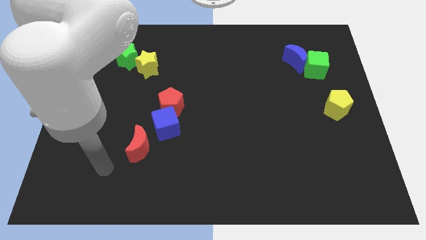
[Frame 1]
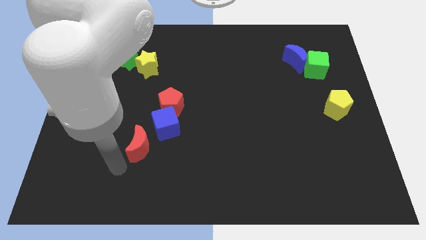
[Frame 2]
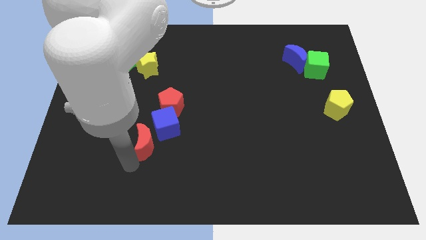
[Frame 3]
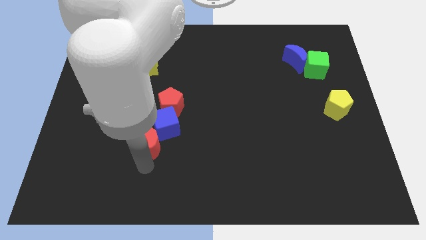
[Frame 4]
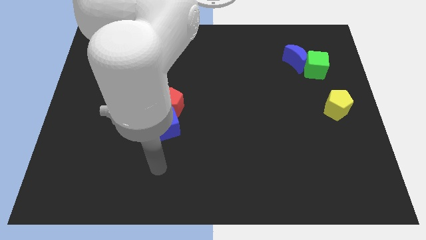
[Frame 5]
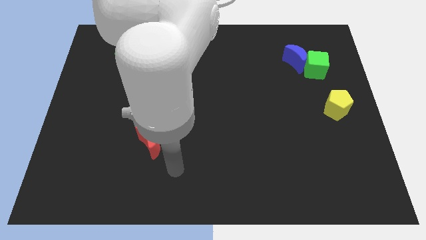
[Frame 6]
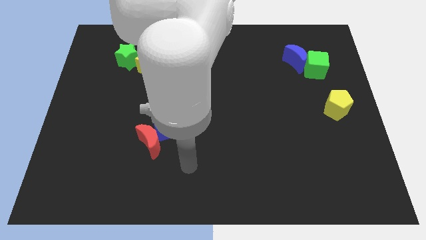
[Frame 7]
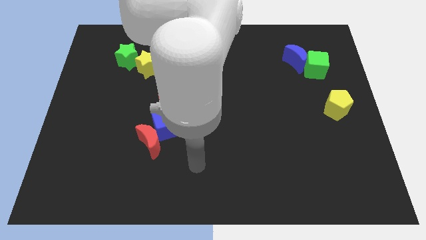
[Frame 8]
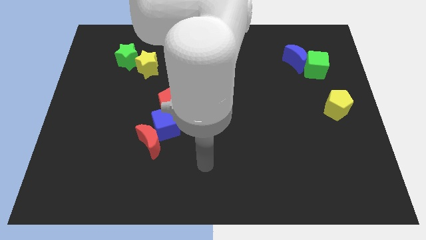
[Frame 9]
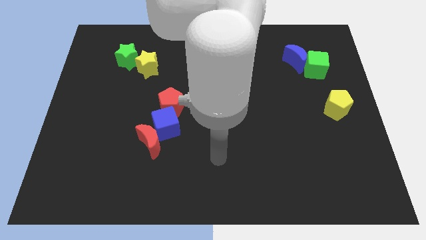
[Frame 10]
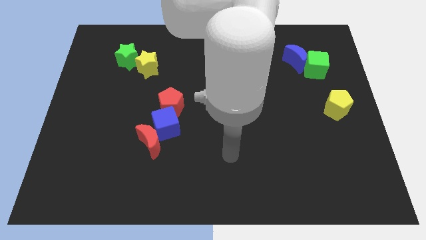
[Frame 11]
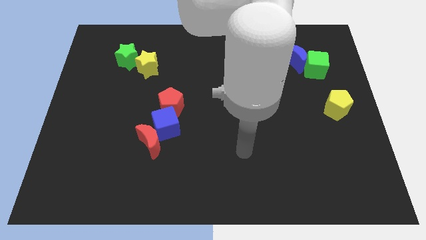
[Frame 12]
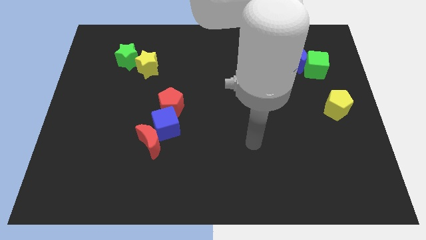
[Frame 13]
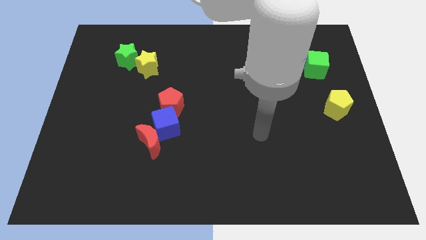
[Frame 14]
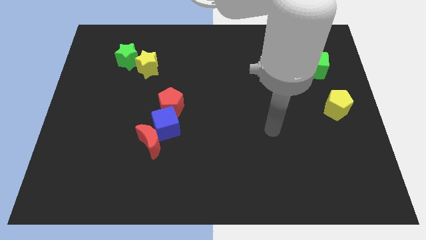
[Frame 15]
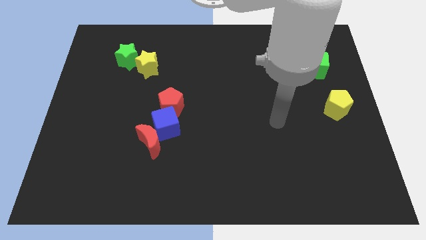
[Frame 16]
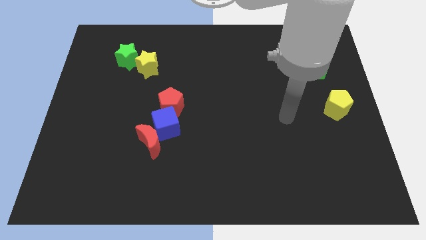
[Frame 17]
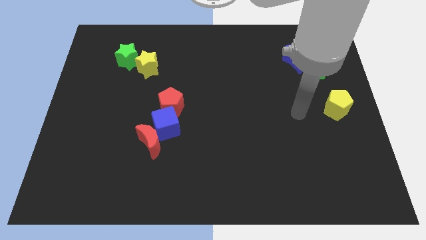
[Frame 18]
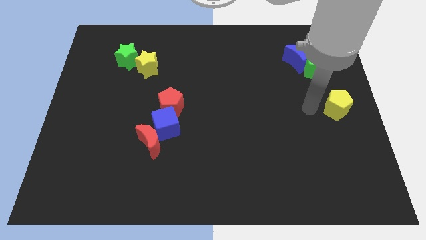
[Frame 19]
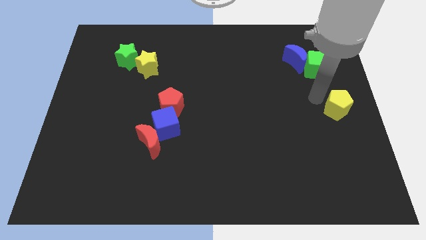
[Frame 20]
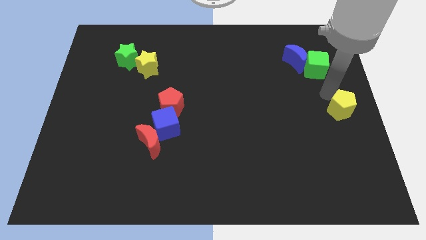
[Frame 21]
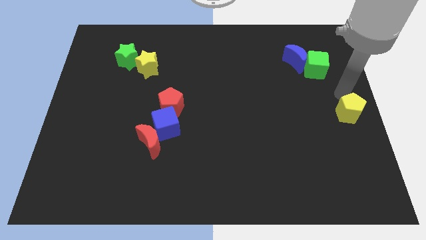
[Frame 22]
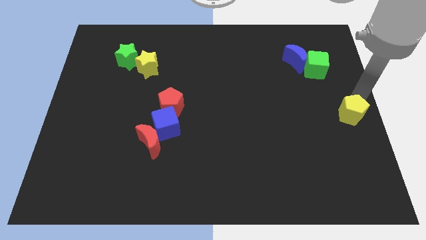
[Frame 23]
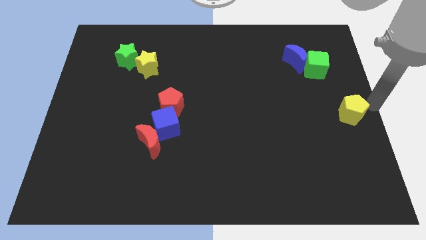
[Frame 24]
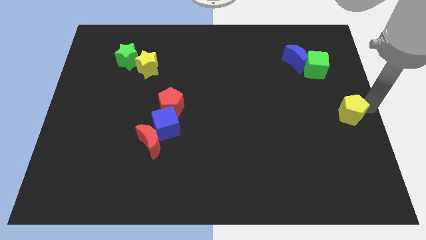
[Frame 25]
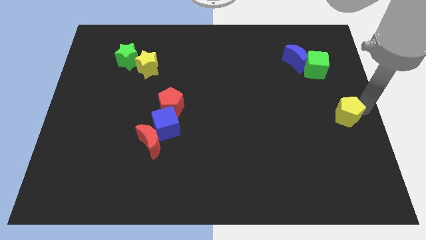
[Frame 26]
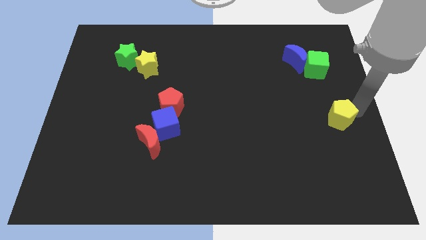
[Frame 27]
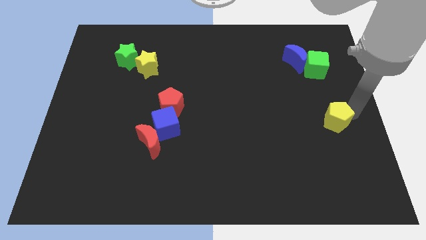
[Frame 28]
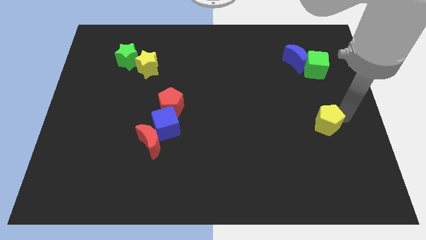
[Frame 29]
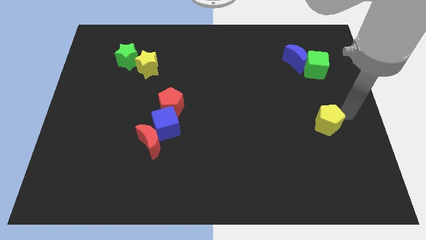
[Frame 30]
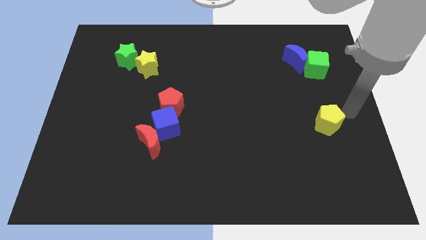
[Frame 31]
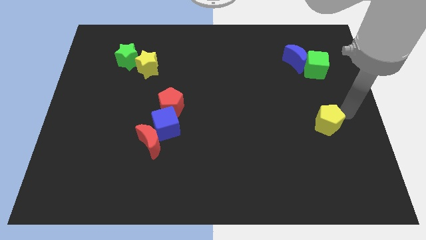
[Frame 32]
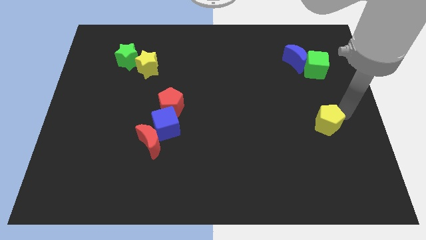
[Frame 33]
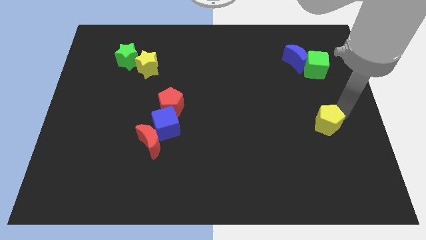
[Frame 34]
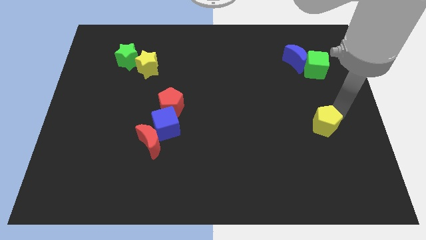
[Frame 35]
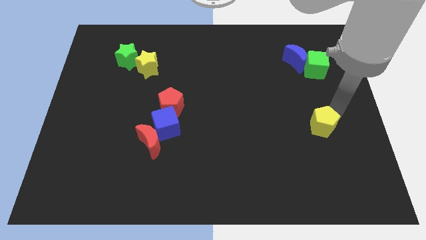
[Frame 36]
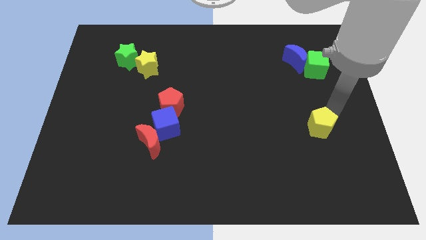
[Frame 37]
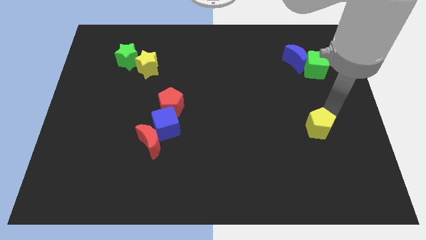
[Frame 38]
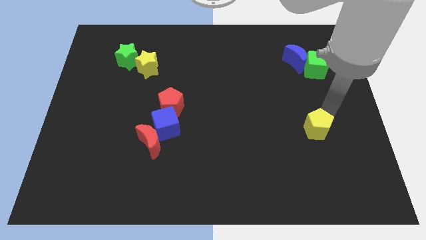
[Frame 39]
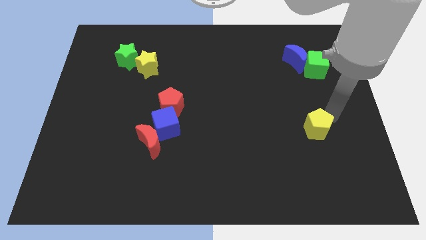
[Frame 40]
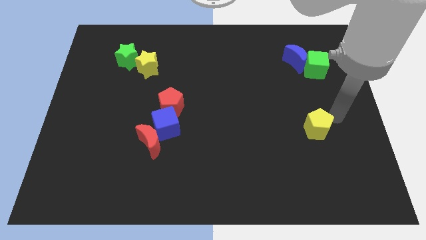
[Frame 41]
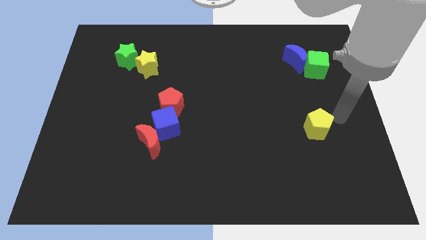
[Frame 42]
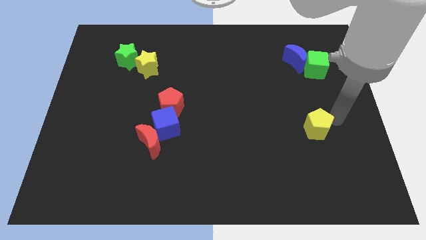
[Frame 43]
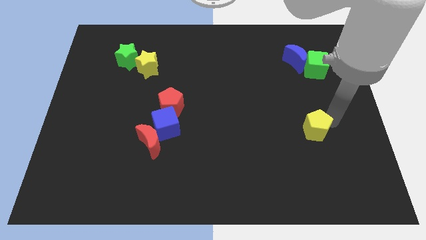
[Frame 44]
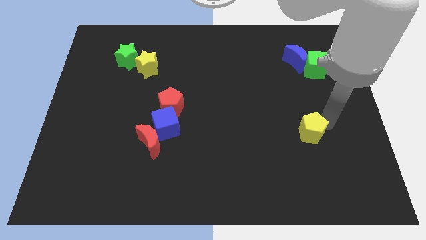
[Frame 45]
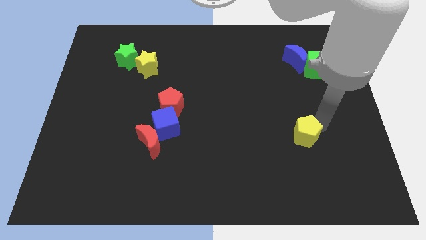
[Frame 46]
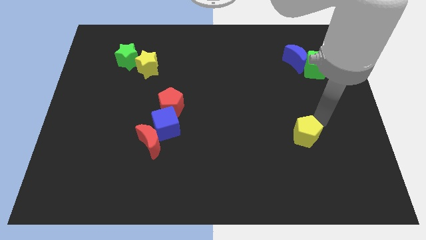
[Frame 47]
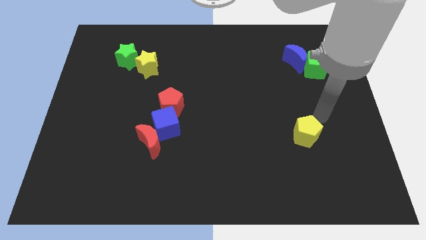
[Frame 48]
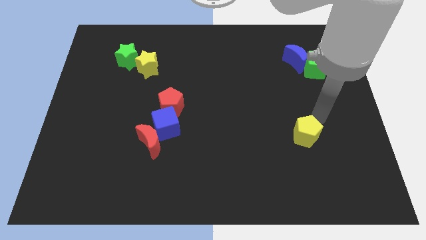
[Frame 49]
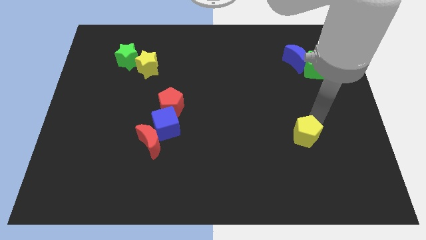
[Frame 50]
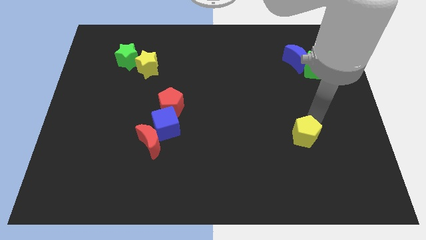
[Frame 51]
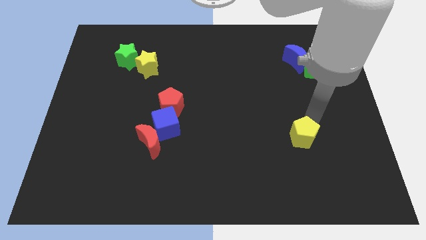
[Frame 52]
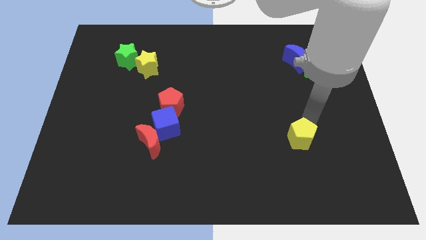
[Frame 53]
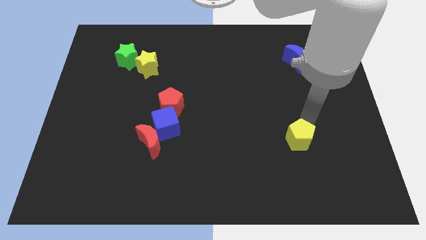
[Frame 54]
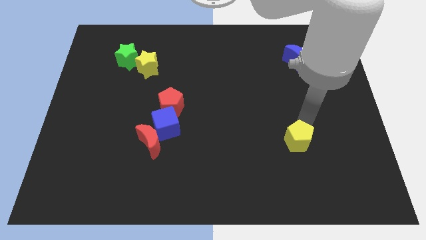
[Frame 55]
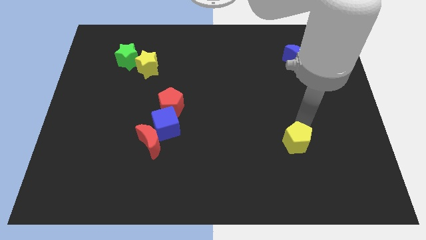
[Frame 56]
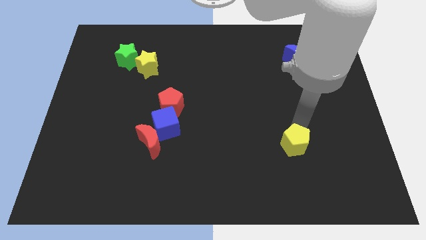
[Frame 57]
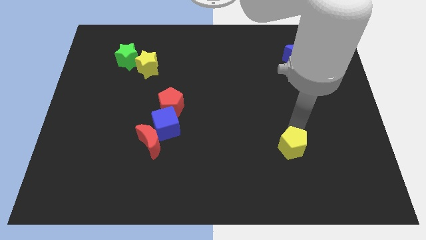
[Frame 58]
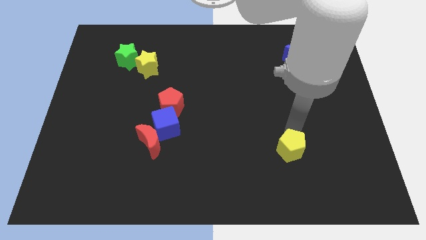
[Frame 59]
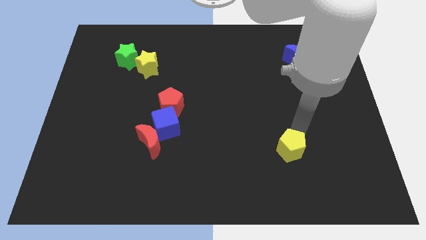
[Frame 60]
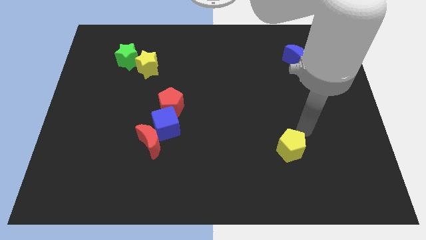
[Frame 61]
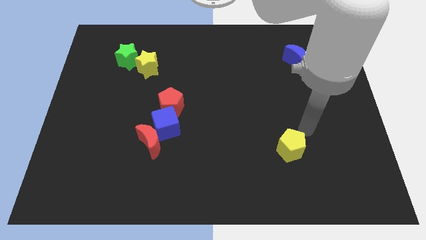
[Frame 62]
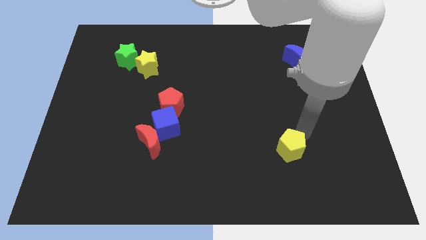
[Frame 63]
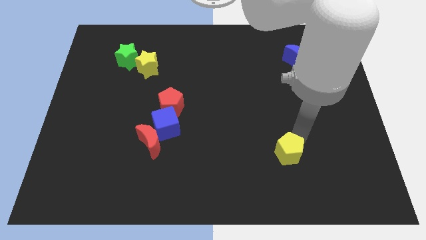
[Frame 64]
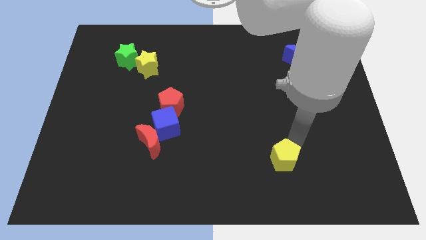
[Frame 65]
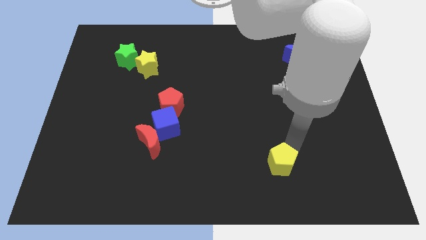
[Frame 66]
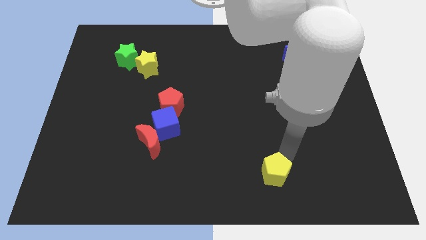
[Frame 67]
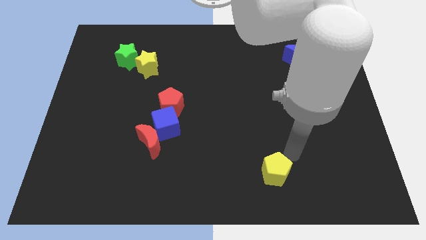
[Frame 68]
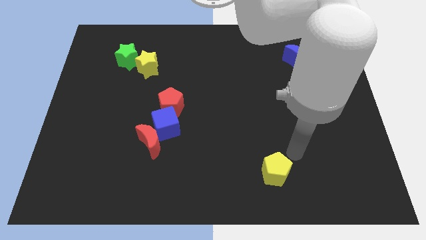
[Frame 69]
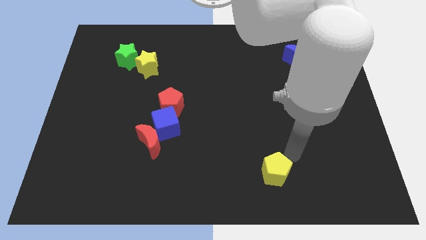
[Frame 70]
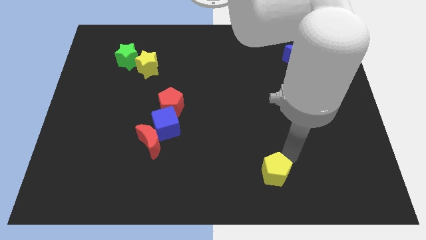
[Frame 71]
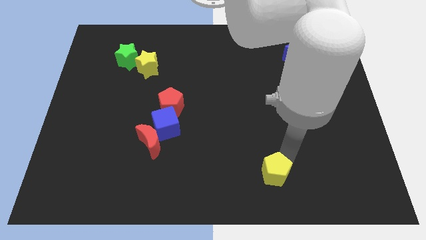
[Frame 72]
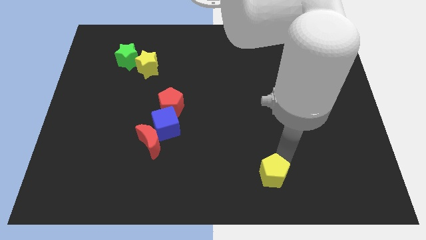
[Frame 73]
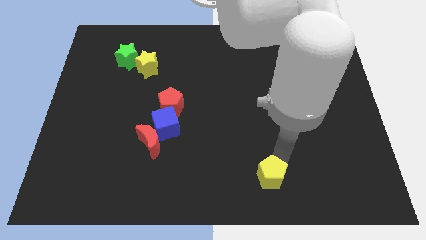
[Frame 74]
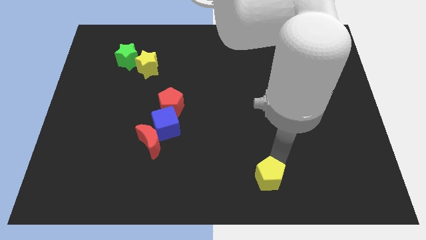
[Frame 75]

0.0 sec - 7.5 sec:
move the yellow pentagon to the bottom
